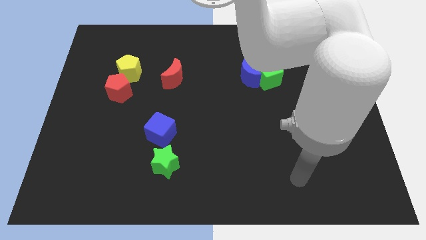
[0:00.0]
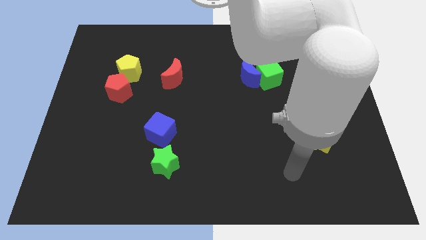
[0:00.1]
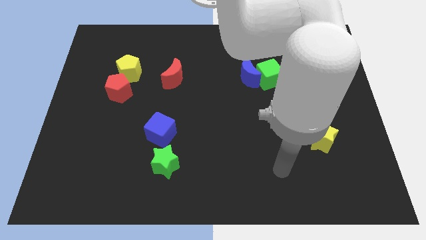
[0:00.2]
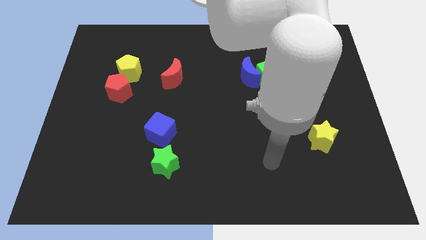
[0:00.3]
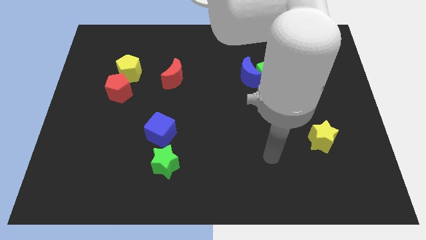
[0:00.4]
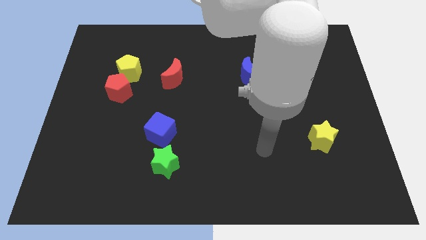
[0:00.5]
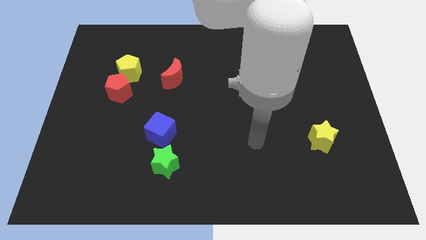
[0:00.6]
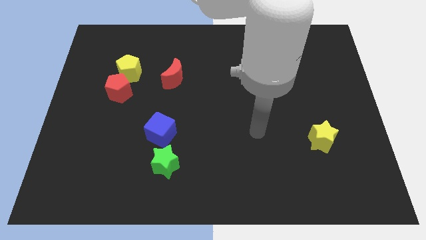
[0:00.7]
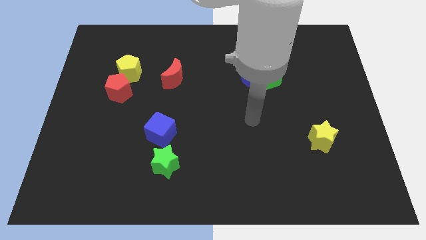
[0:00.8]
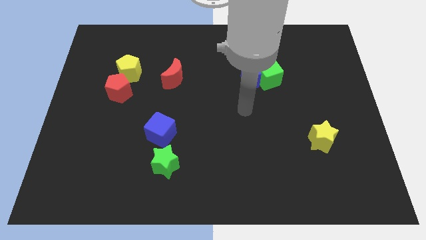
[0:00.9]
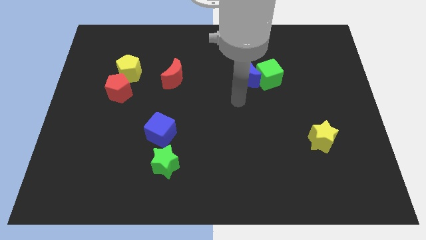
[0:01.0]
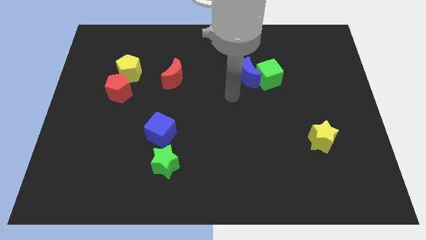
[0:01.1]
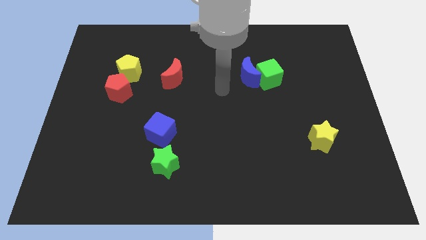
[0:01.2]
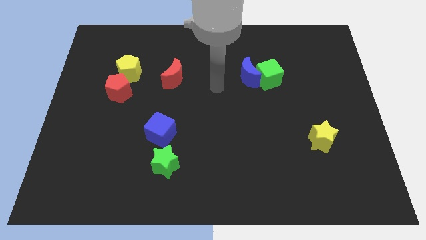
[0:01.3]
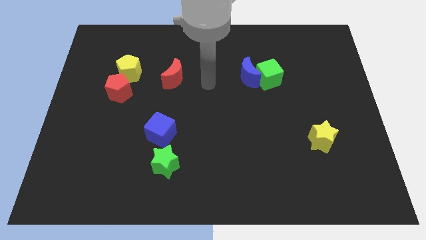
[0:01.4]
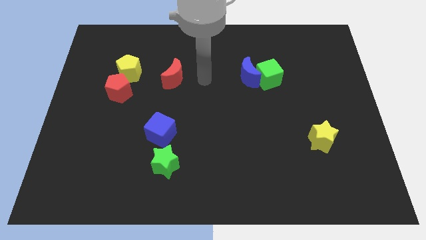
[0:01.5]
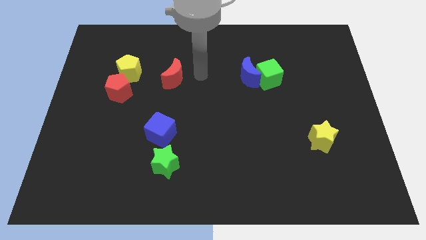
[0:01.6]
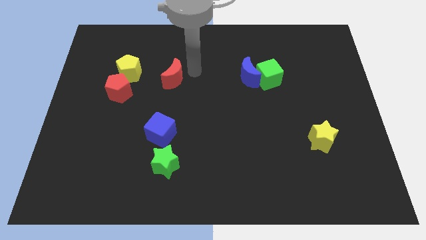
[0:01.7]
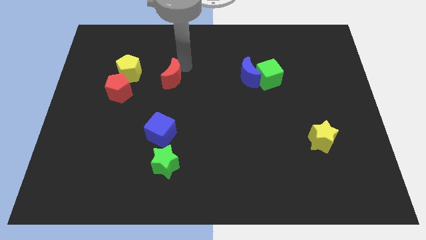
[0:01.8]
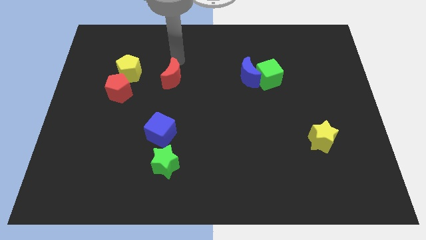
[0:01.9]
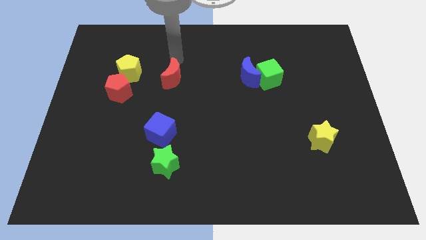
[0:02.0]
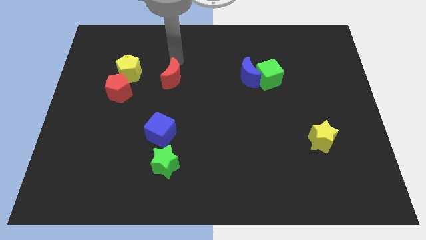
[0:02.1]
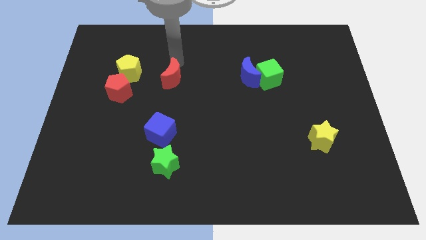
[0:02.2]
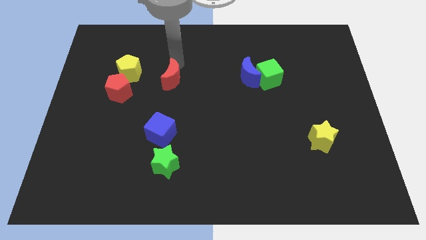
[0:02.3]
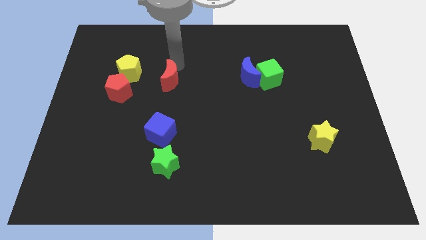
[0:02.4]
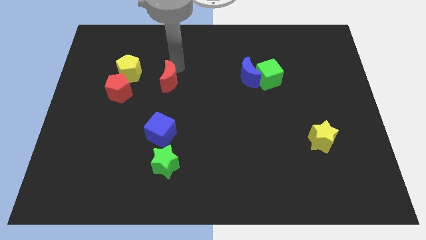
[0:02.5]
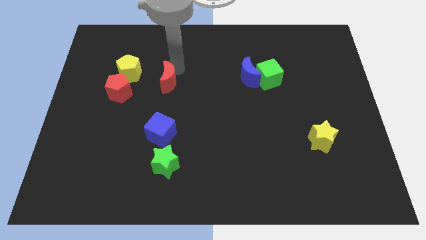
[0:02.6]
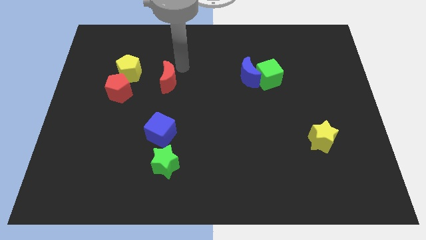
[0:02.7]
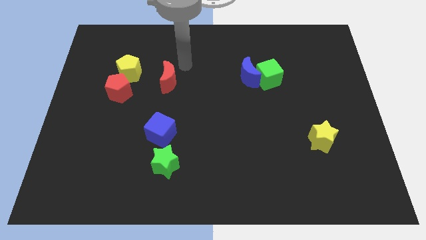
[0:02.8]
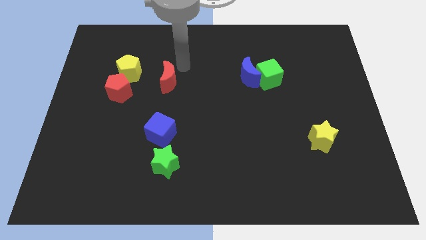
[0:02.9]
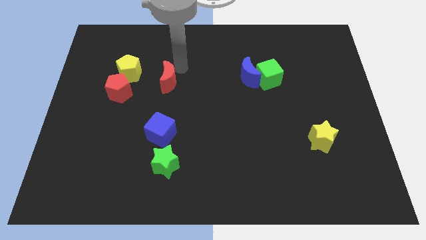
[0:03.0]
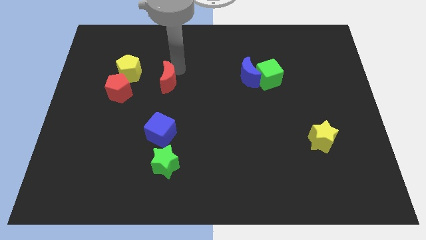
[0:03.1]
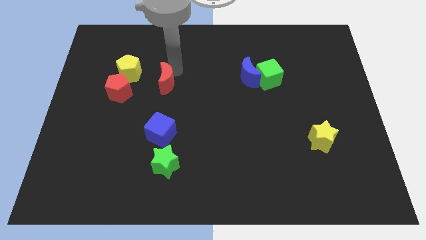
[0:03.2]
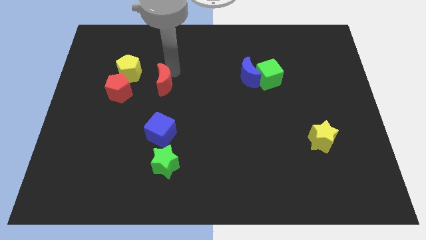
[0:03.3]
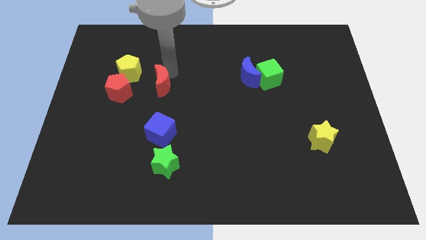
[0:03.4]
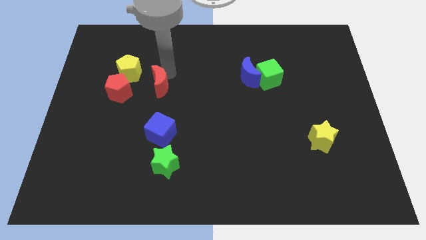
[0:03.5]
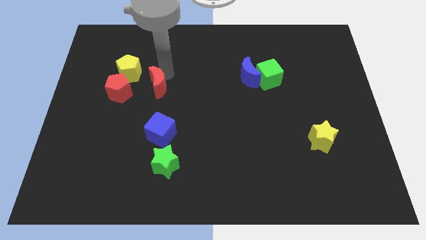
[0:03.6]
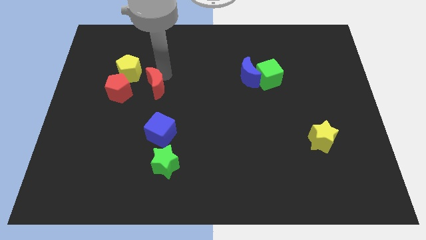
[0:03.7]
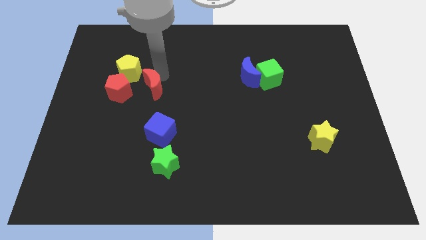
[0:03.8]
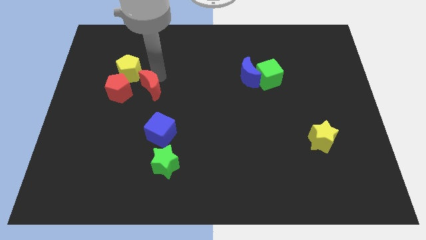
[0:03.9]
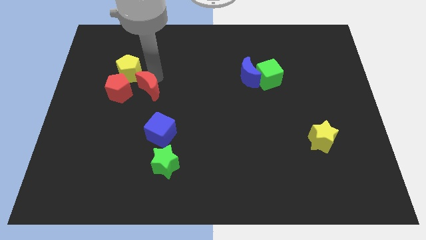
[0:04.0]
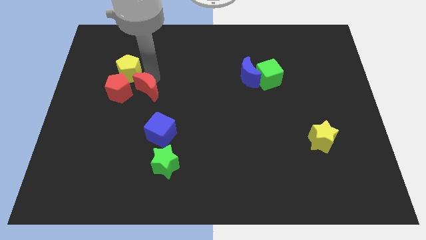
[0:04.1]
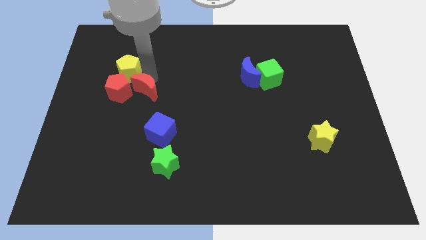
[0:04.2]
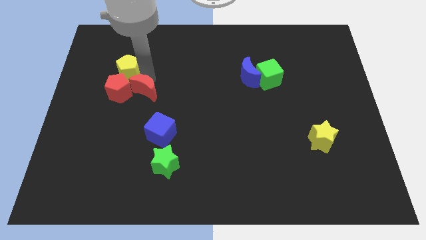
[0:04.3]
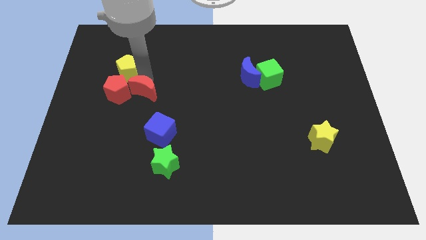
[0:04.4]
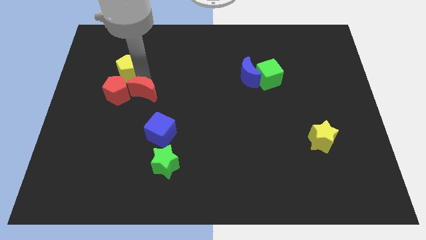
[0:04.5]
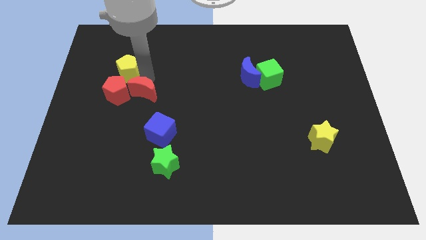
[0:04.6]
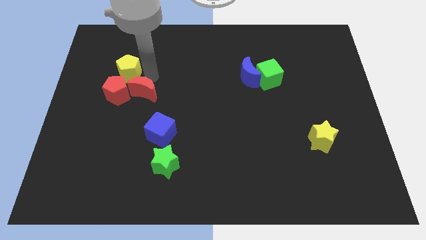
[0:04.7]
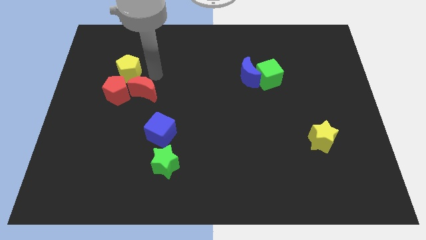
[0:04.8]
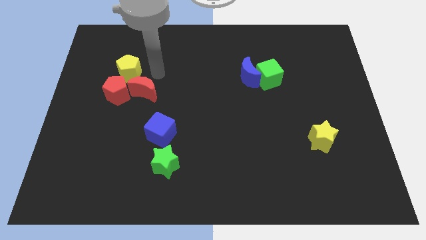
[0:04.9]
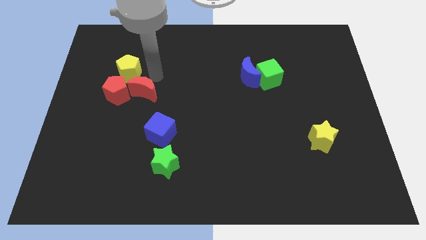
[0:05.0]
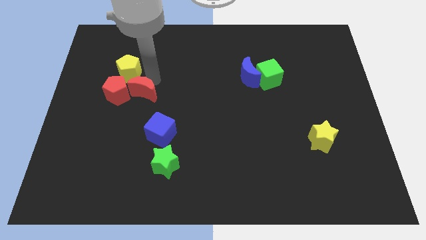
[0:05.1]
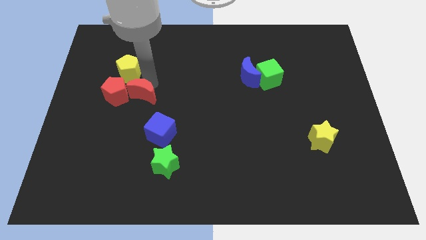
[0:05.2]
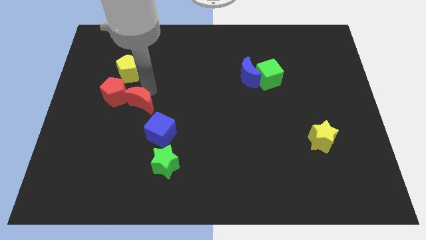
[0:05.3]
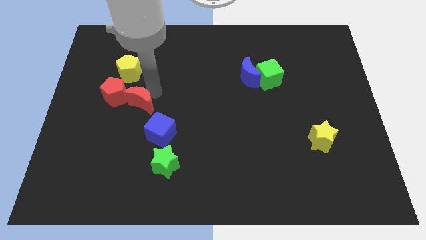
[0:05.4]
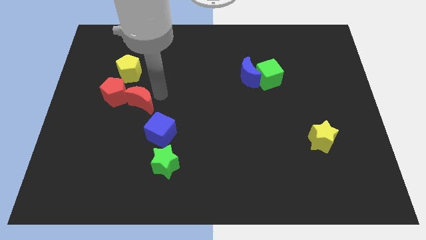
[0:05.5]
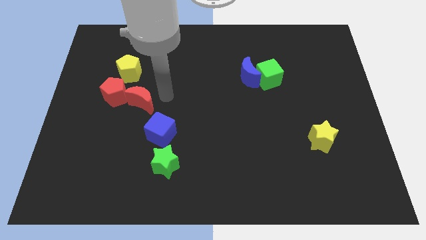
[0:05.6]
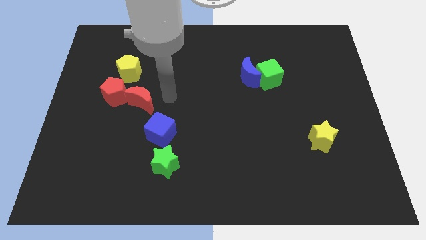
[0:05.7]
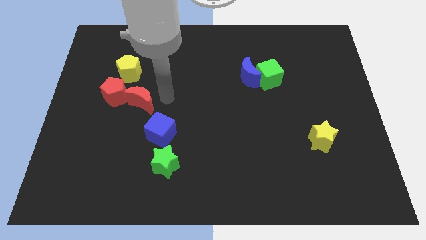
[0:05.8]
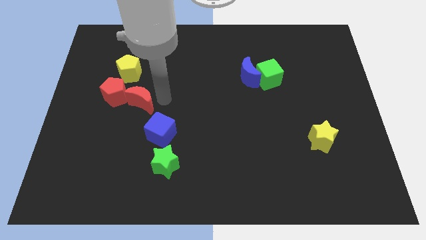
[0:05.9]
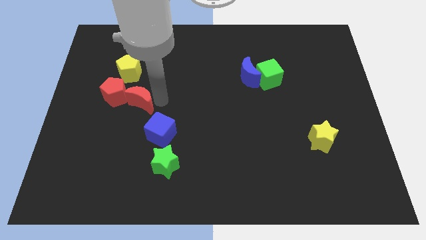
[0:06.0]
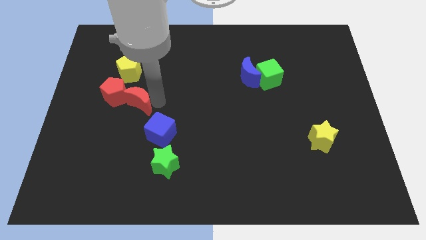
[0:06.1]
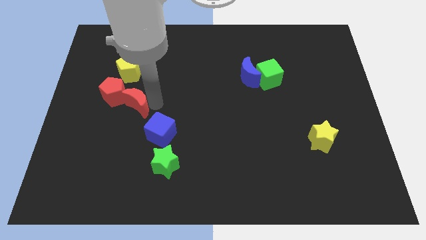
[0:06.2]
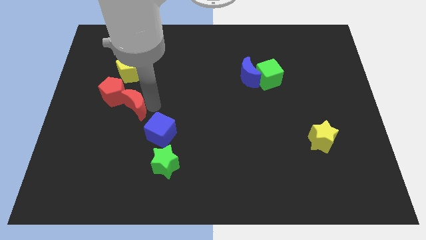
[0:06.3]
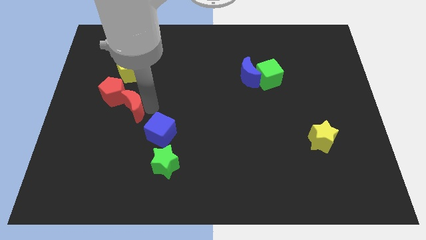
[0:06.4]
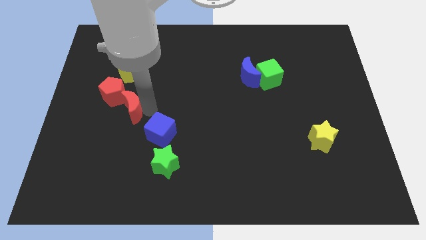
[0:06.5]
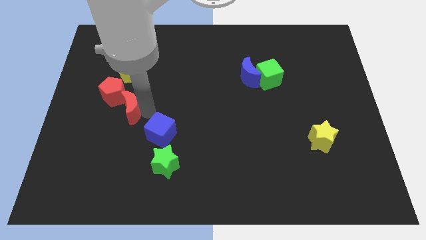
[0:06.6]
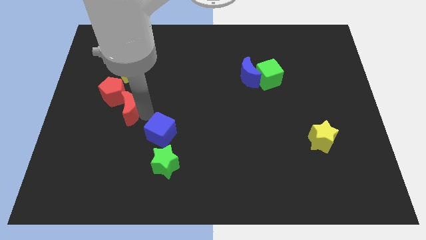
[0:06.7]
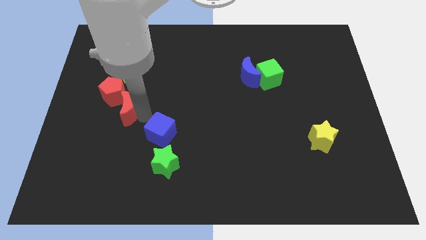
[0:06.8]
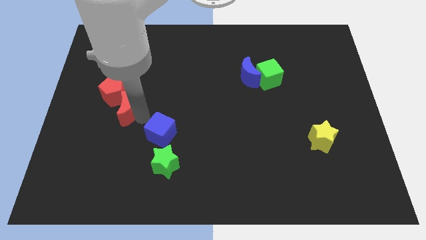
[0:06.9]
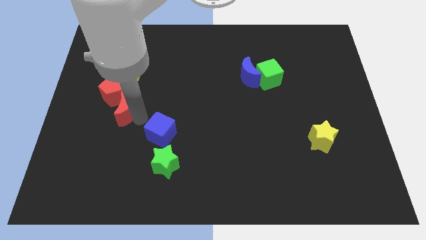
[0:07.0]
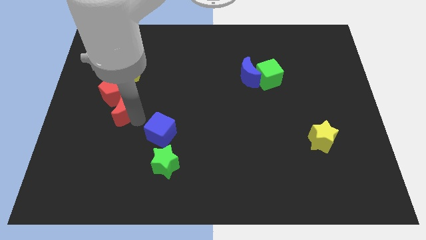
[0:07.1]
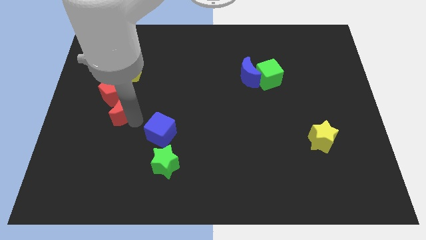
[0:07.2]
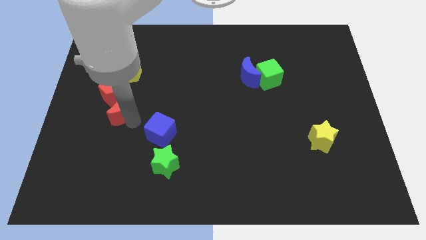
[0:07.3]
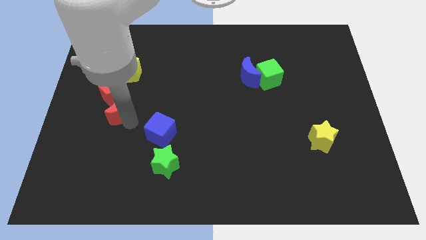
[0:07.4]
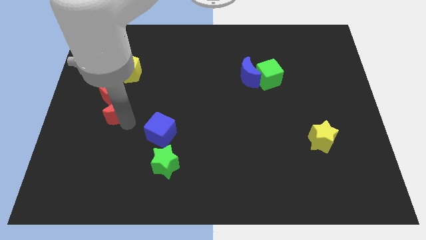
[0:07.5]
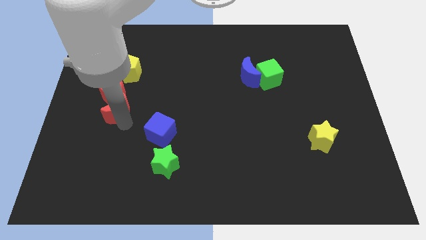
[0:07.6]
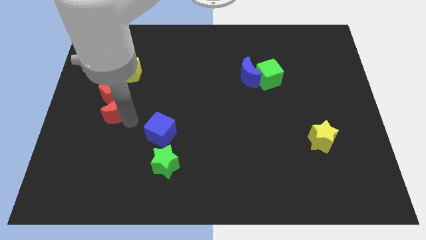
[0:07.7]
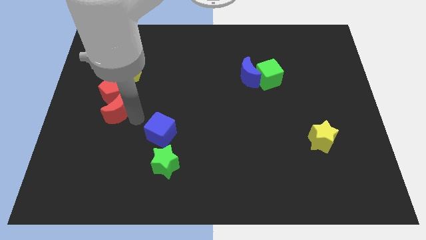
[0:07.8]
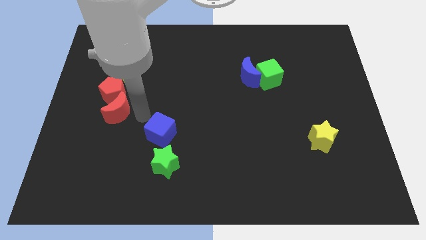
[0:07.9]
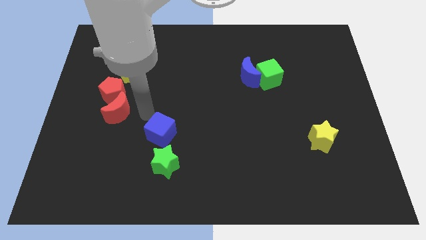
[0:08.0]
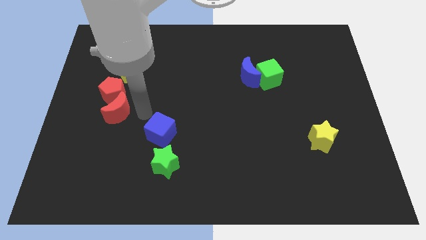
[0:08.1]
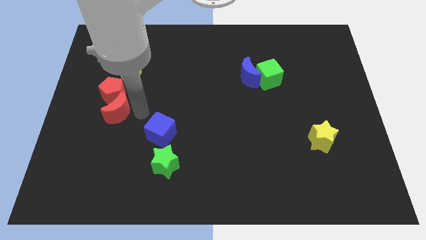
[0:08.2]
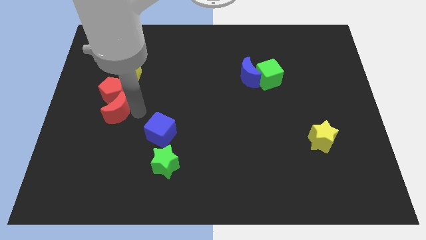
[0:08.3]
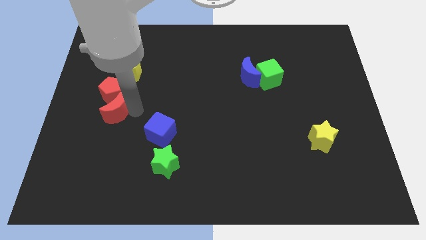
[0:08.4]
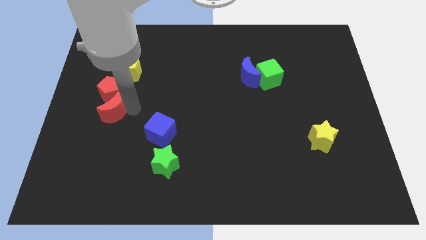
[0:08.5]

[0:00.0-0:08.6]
slide the red moon diagonally down and to the left of the red pentagon
